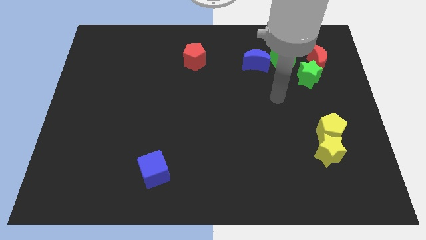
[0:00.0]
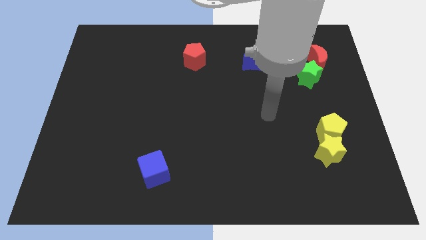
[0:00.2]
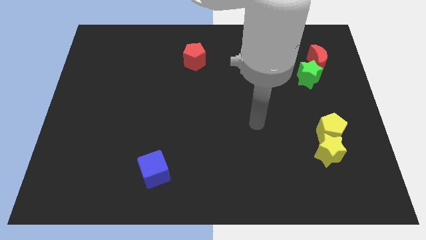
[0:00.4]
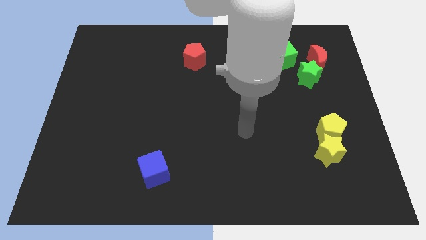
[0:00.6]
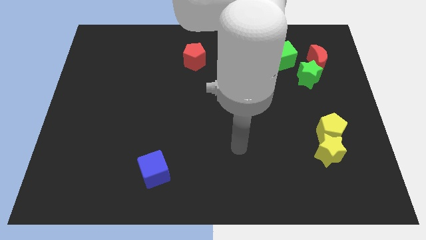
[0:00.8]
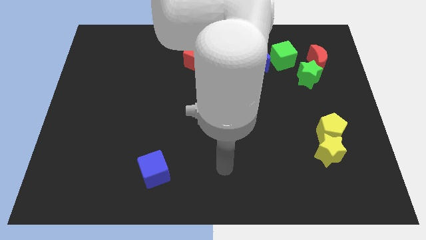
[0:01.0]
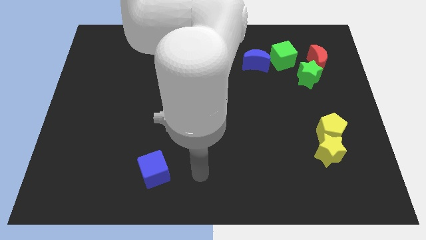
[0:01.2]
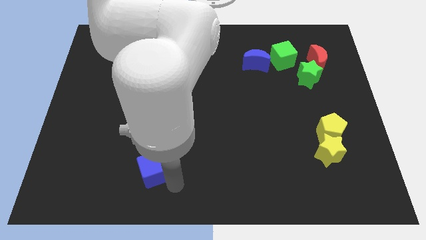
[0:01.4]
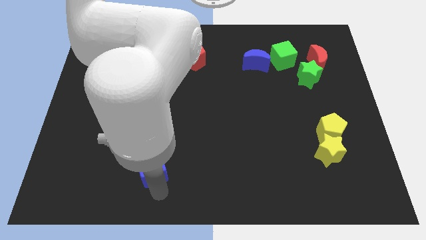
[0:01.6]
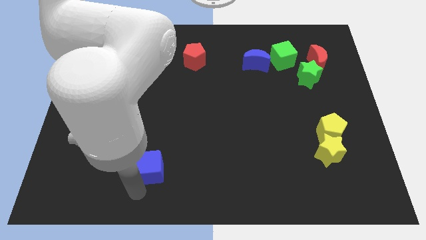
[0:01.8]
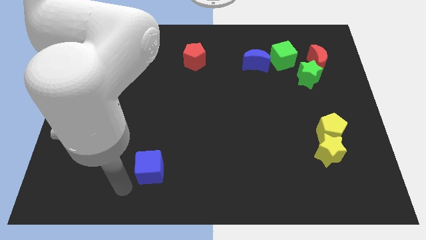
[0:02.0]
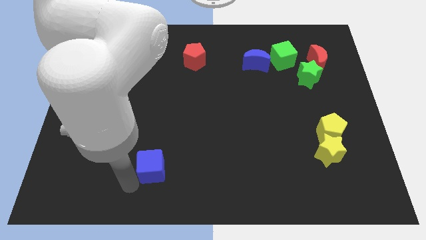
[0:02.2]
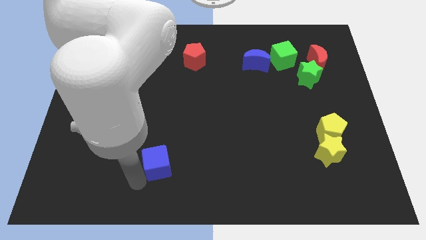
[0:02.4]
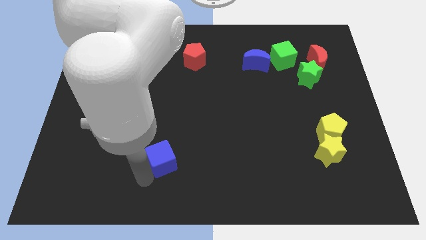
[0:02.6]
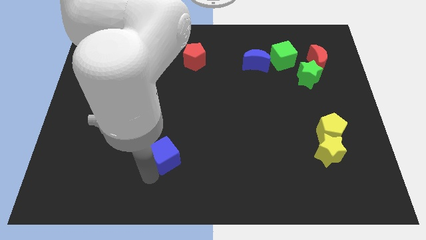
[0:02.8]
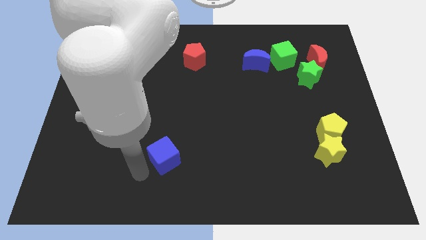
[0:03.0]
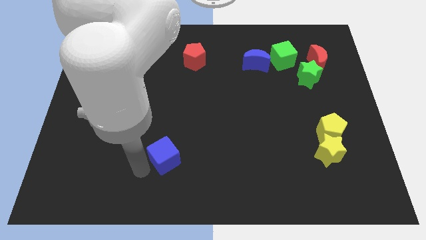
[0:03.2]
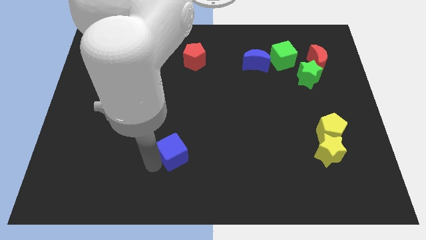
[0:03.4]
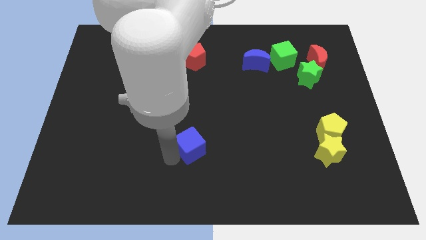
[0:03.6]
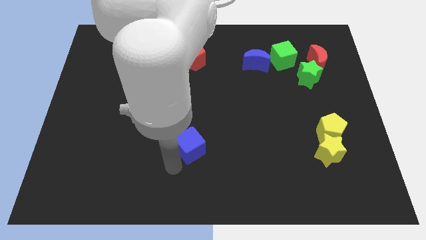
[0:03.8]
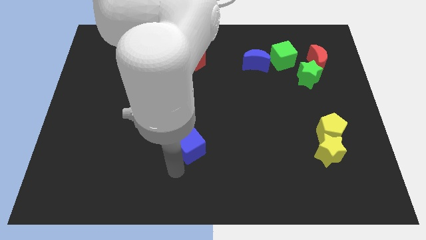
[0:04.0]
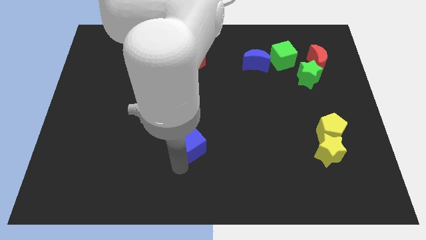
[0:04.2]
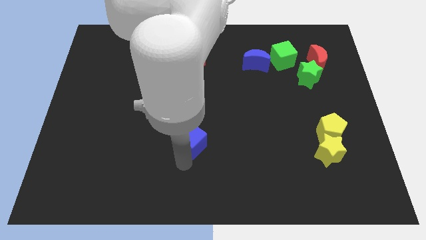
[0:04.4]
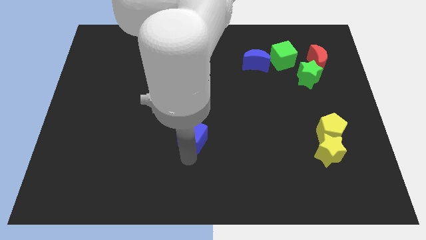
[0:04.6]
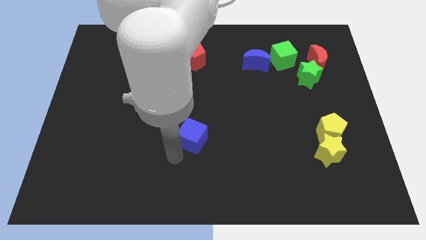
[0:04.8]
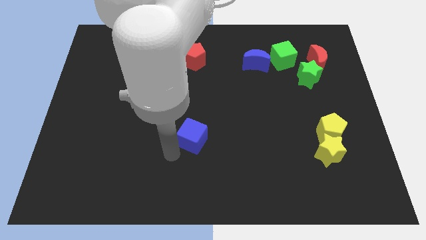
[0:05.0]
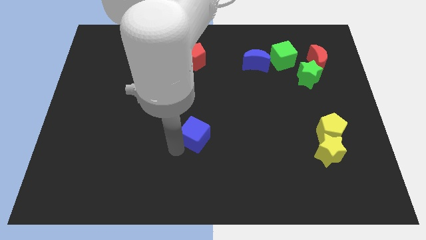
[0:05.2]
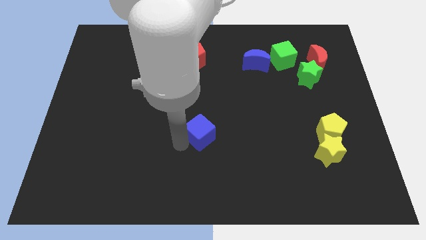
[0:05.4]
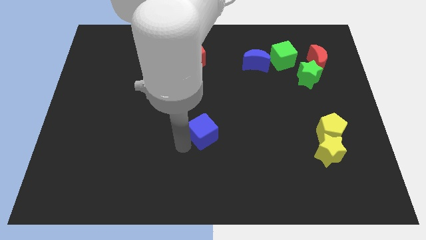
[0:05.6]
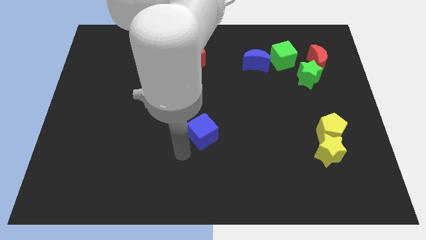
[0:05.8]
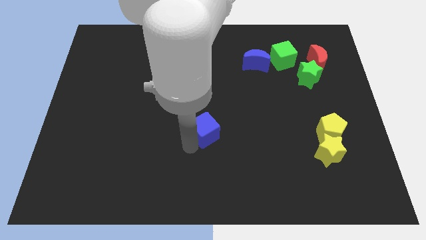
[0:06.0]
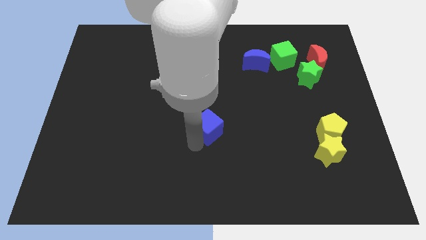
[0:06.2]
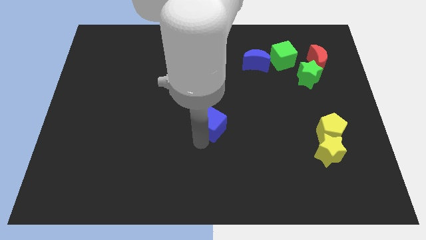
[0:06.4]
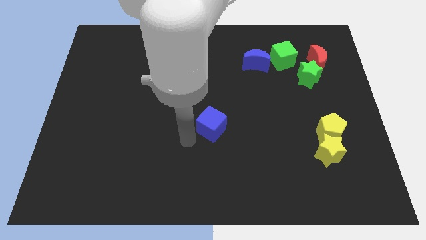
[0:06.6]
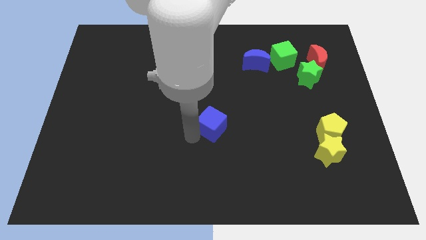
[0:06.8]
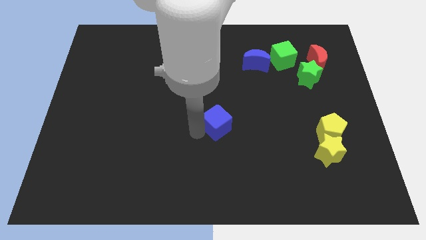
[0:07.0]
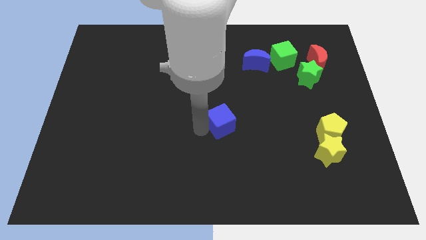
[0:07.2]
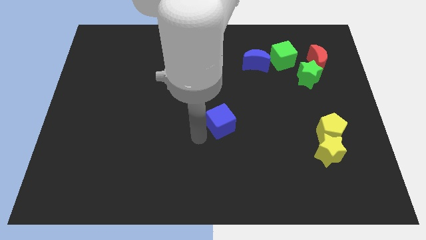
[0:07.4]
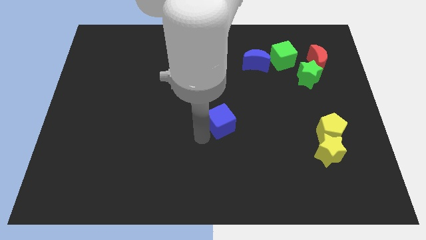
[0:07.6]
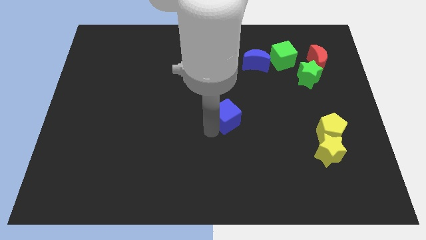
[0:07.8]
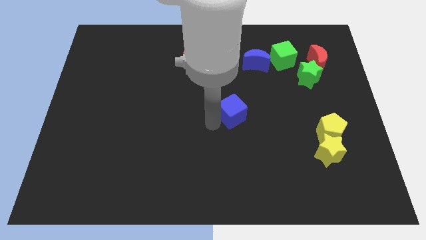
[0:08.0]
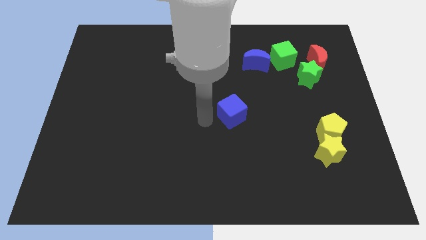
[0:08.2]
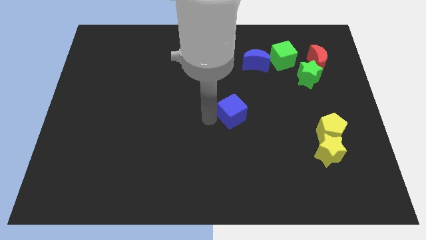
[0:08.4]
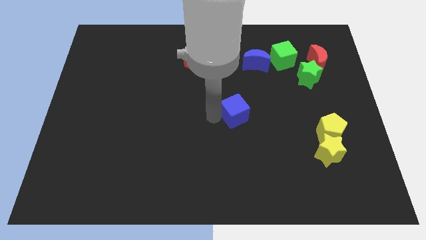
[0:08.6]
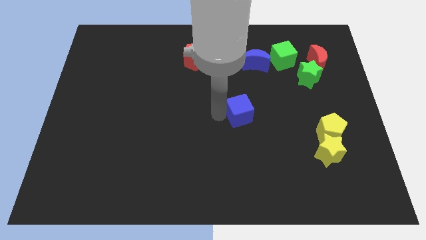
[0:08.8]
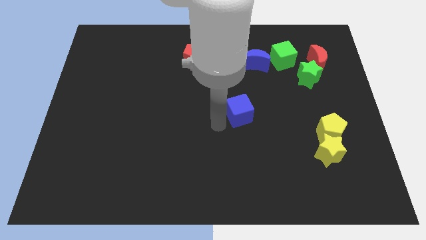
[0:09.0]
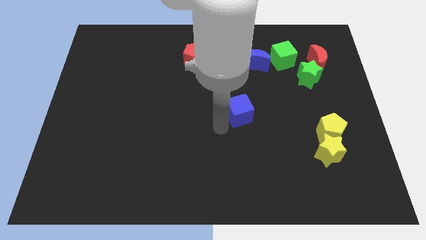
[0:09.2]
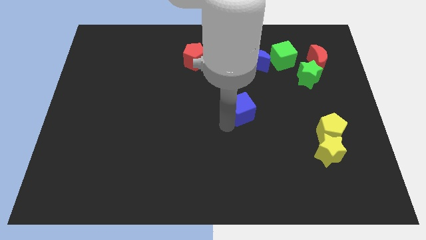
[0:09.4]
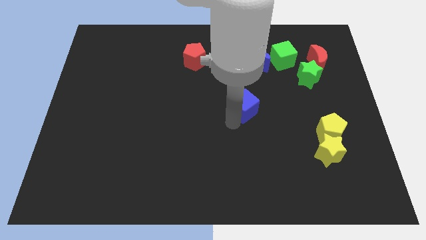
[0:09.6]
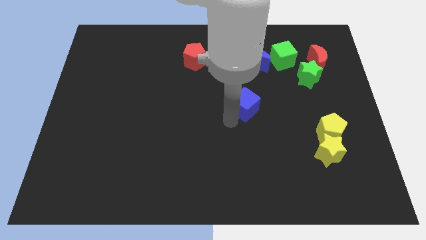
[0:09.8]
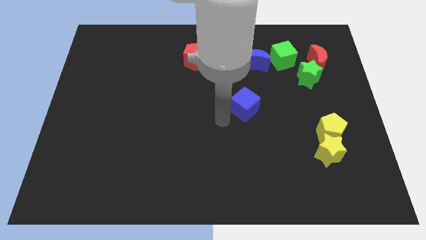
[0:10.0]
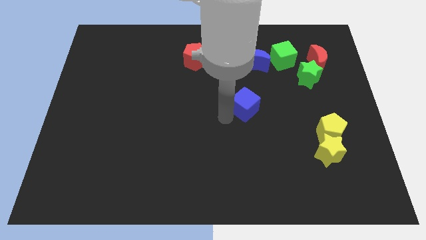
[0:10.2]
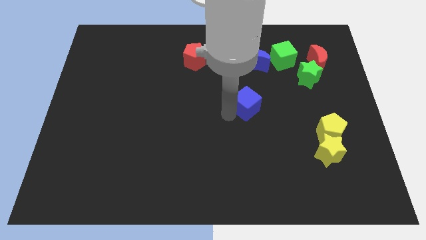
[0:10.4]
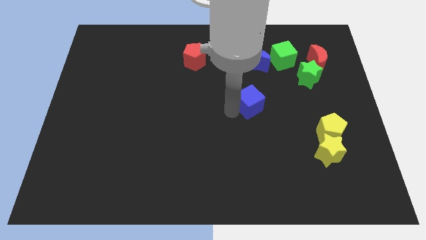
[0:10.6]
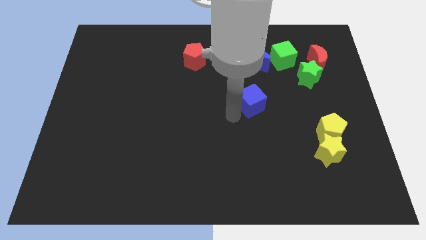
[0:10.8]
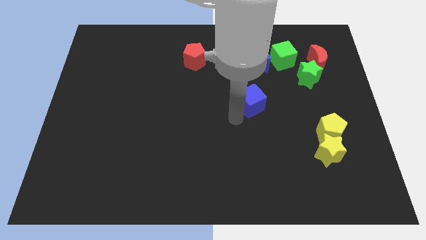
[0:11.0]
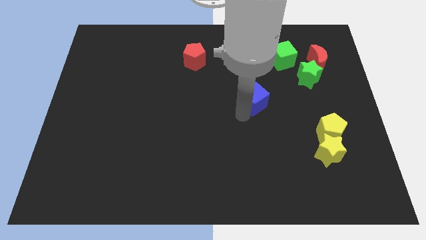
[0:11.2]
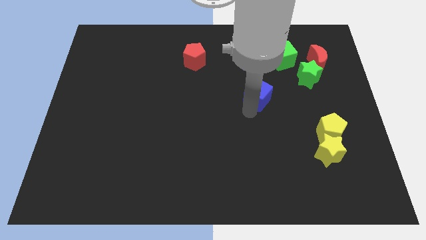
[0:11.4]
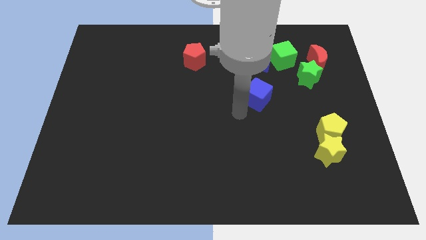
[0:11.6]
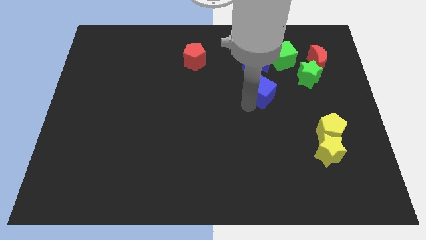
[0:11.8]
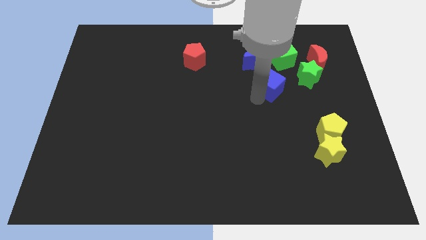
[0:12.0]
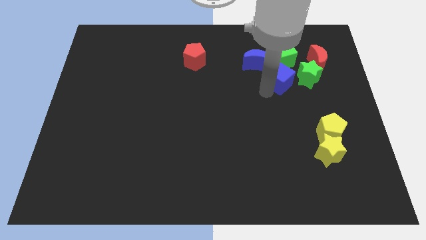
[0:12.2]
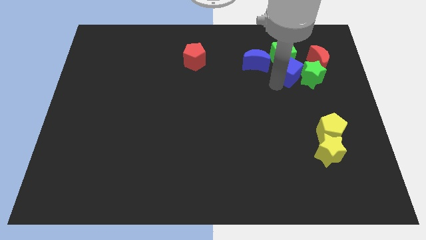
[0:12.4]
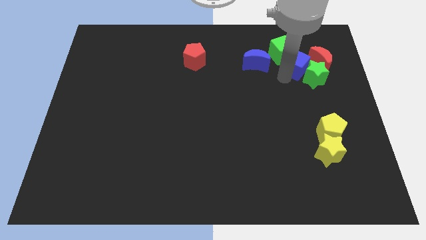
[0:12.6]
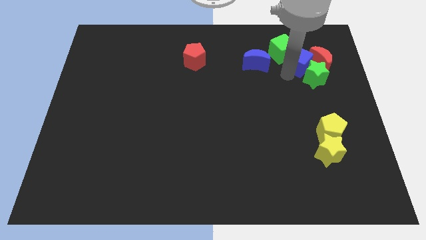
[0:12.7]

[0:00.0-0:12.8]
slide the blue cube close to the red moon

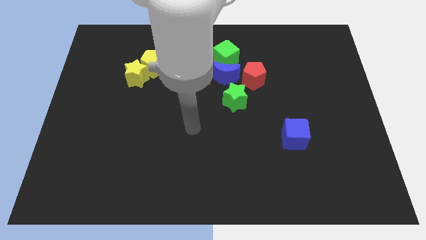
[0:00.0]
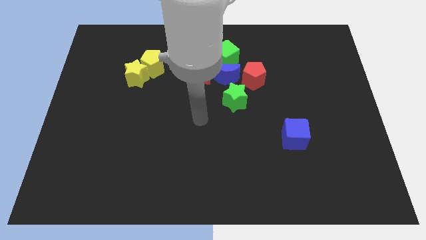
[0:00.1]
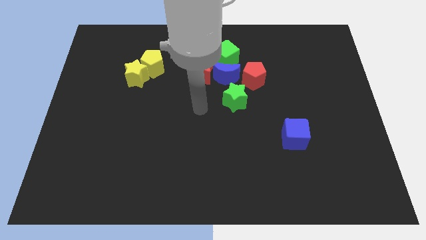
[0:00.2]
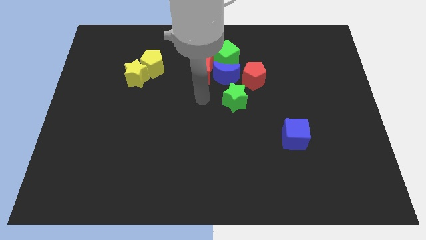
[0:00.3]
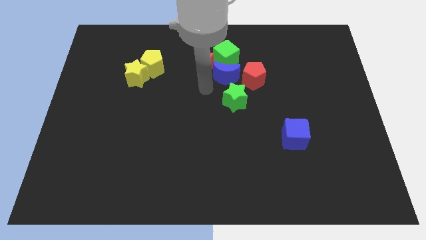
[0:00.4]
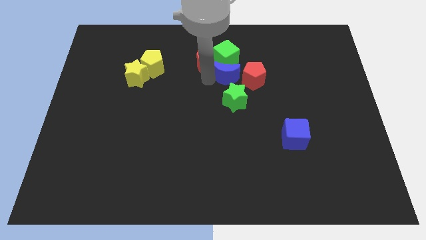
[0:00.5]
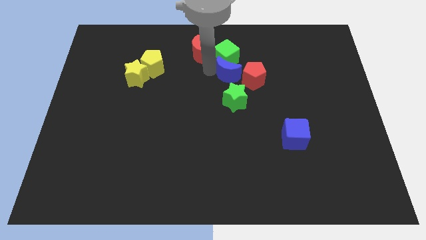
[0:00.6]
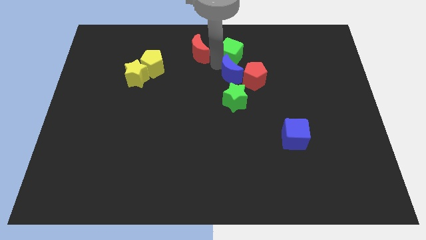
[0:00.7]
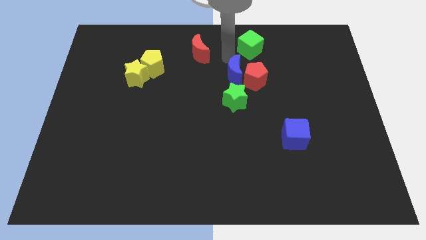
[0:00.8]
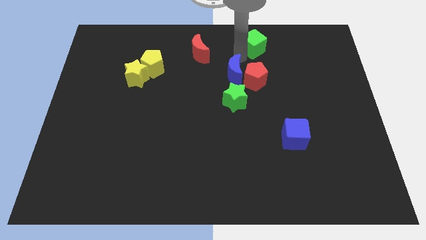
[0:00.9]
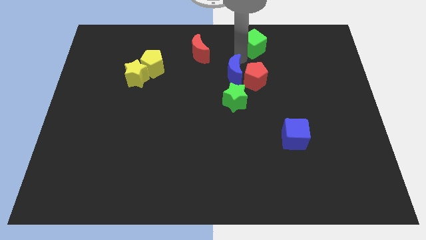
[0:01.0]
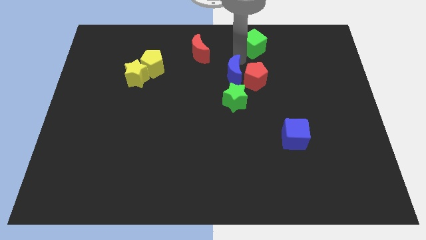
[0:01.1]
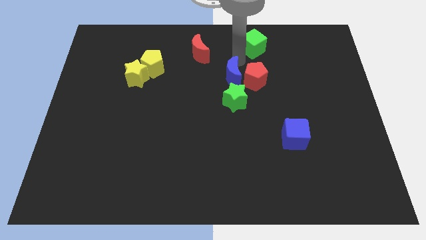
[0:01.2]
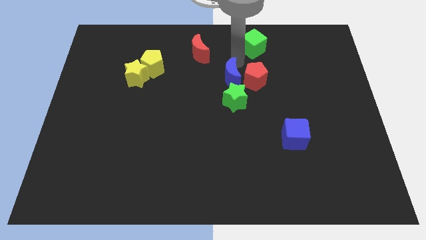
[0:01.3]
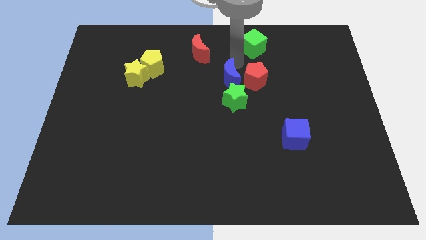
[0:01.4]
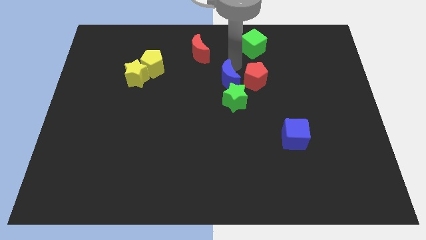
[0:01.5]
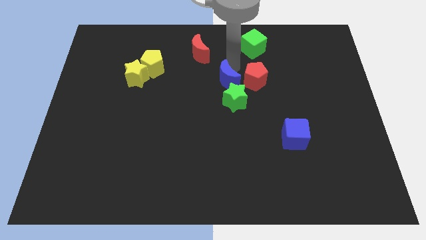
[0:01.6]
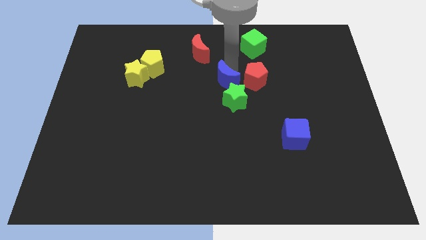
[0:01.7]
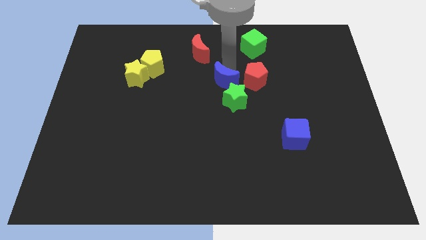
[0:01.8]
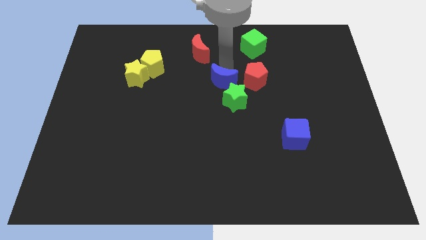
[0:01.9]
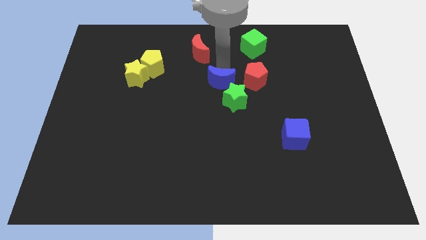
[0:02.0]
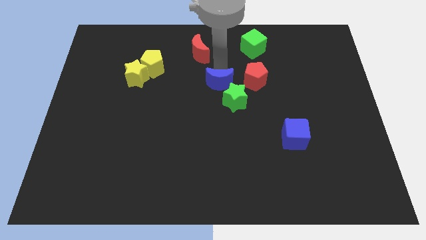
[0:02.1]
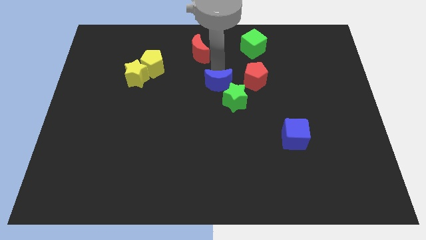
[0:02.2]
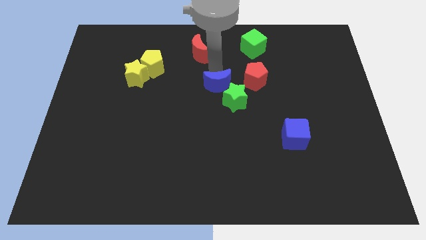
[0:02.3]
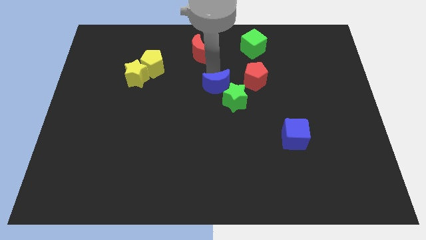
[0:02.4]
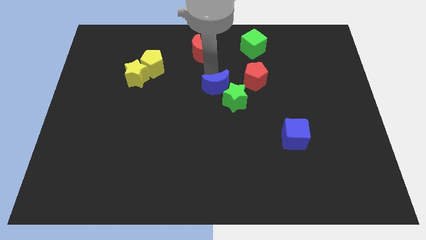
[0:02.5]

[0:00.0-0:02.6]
move the blue moon towards the green star
